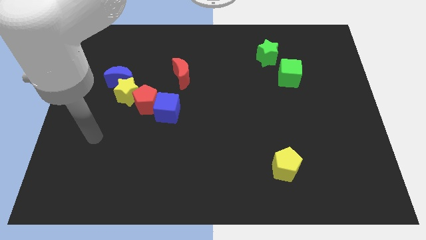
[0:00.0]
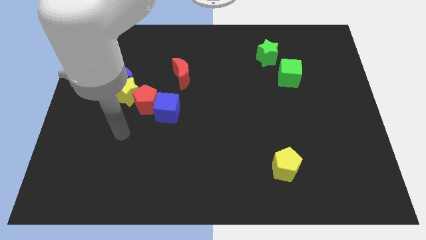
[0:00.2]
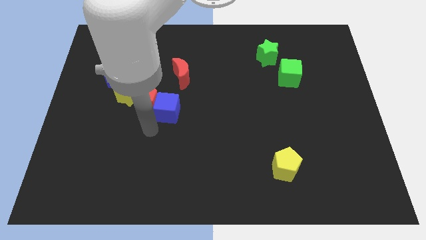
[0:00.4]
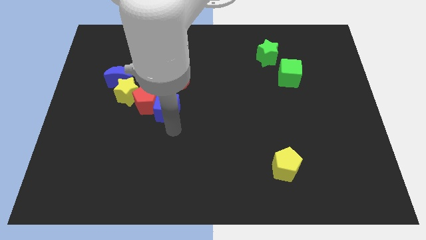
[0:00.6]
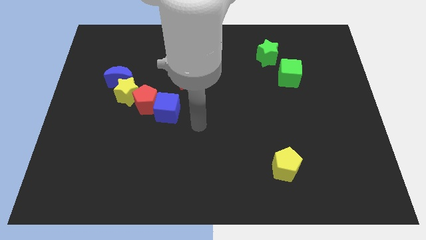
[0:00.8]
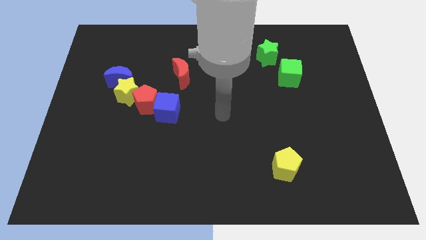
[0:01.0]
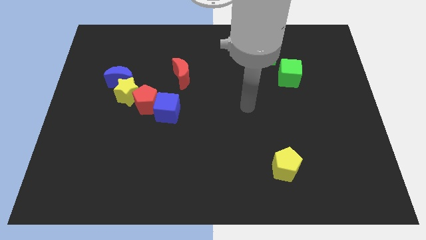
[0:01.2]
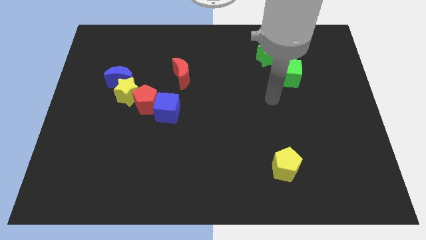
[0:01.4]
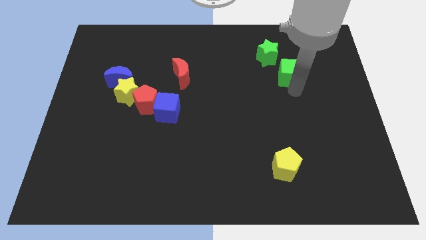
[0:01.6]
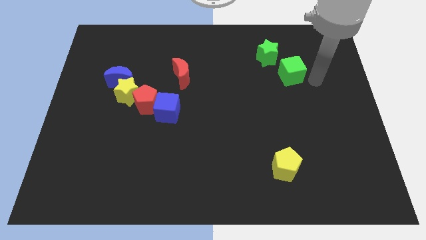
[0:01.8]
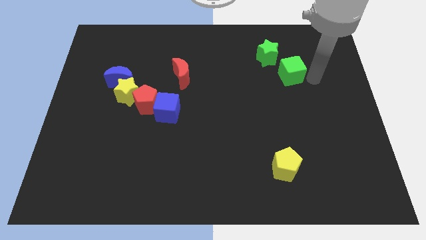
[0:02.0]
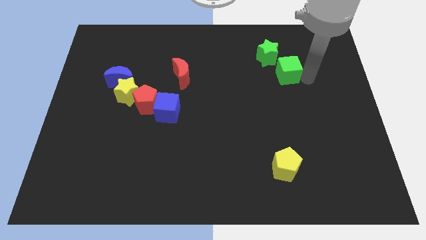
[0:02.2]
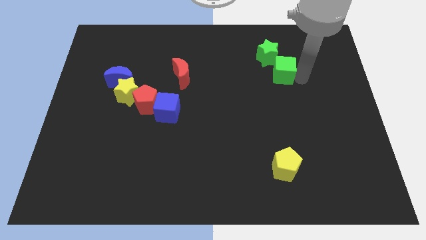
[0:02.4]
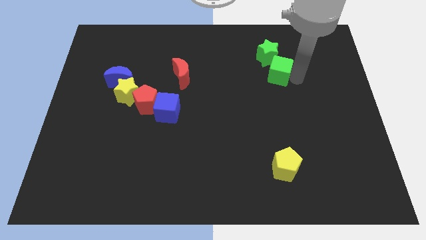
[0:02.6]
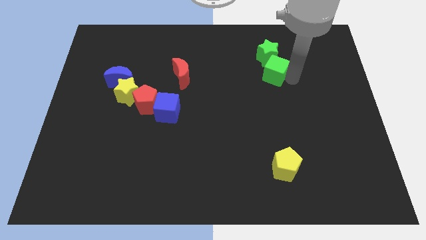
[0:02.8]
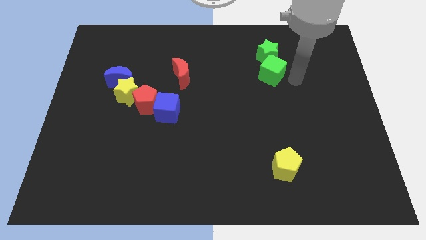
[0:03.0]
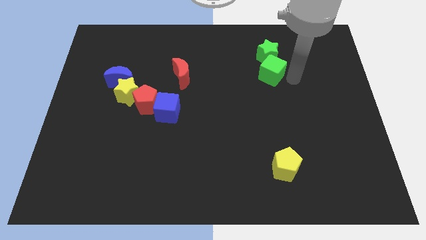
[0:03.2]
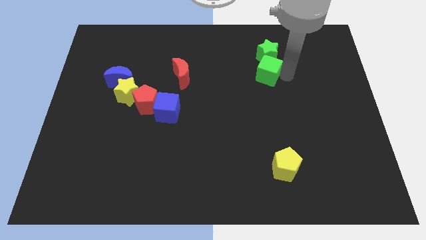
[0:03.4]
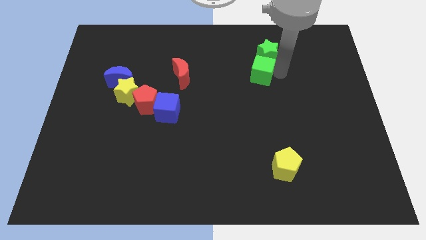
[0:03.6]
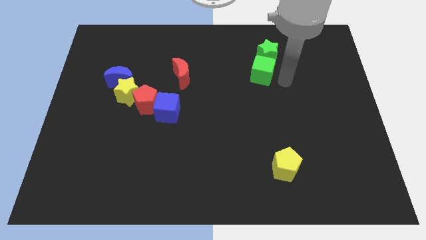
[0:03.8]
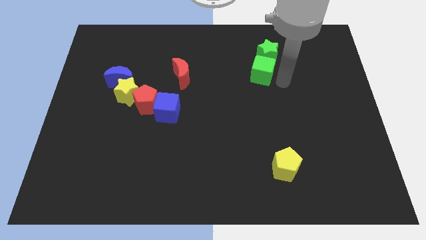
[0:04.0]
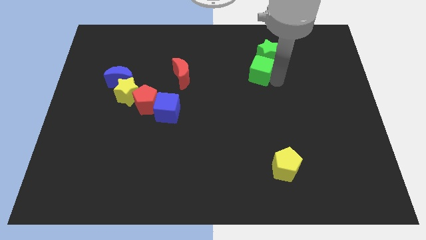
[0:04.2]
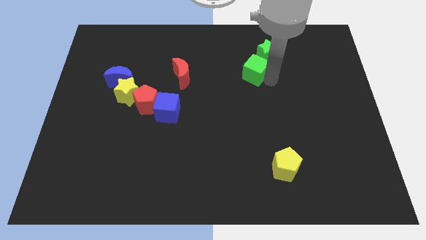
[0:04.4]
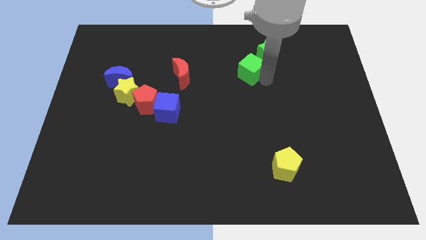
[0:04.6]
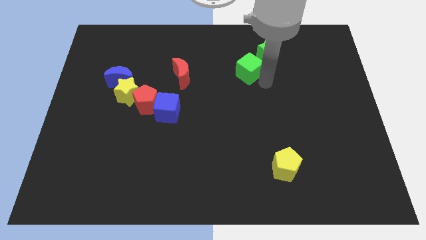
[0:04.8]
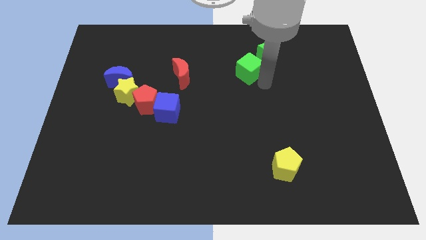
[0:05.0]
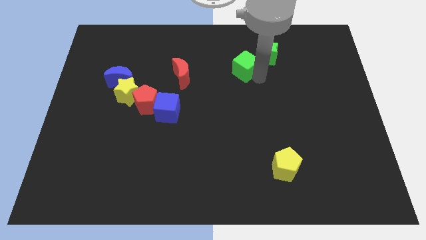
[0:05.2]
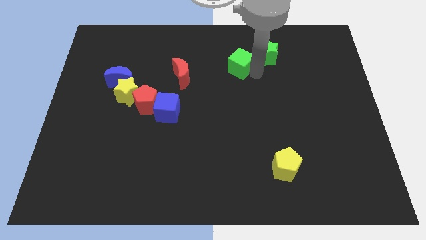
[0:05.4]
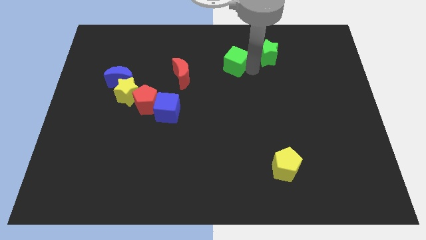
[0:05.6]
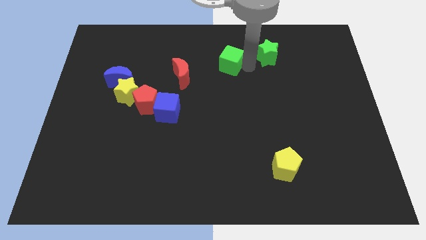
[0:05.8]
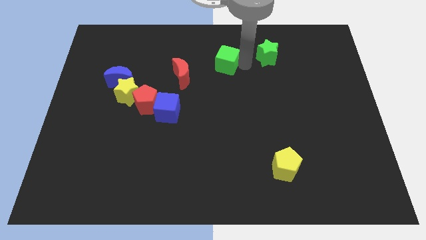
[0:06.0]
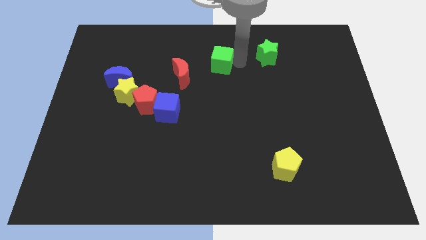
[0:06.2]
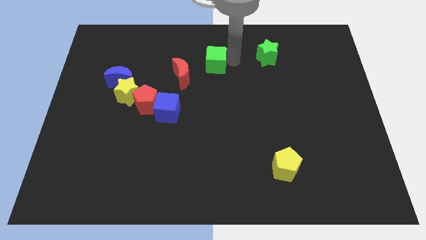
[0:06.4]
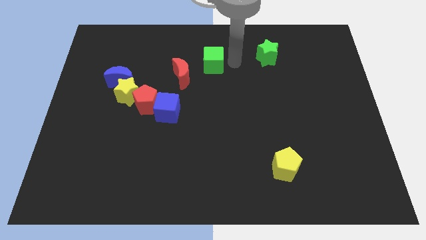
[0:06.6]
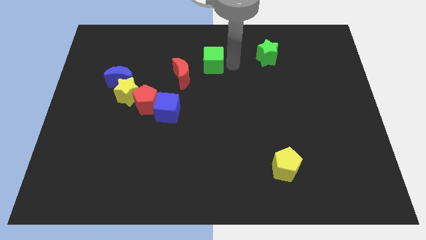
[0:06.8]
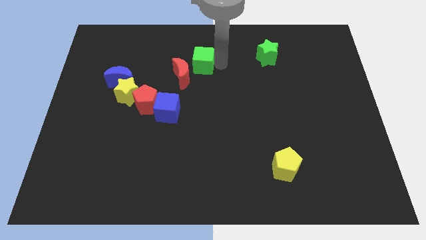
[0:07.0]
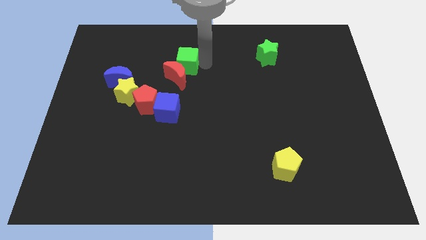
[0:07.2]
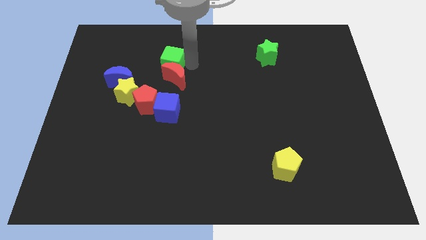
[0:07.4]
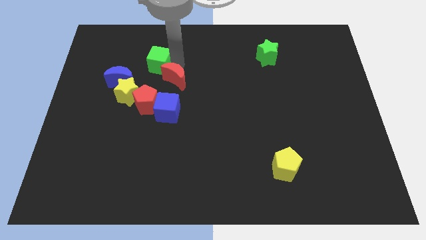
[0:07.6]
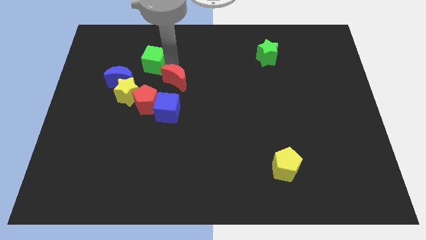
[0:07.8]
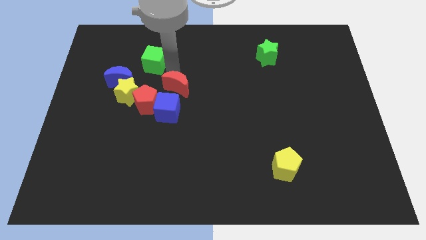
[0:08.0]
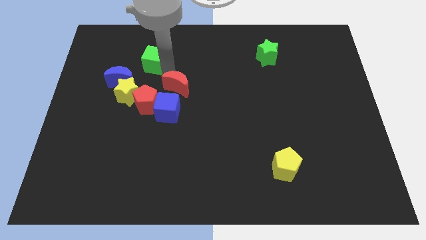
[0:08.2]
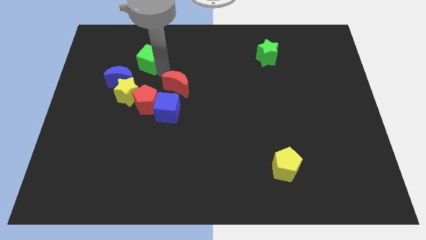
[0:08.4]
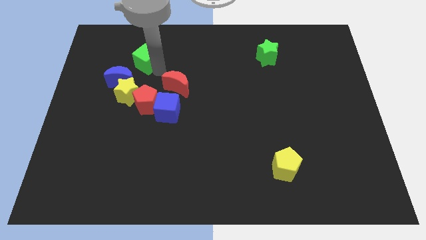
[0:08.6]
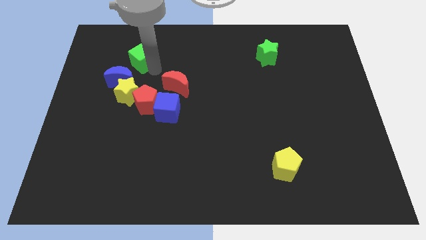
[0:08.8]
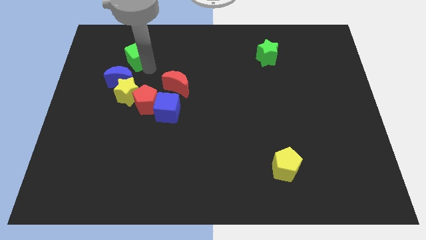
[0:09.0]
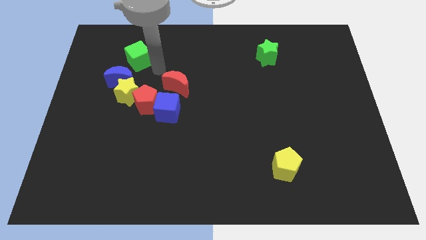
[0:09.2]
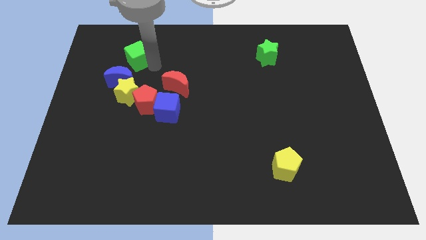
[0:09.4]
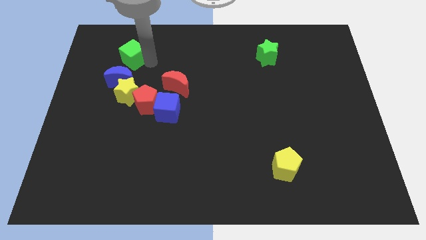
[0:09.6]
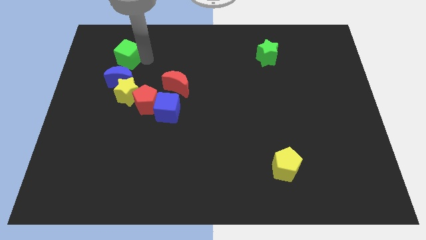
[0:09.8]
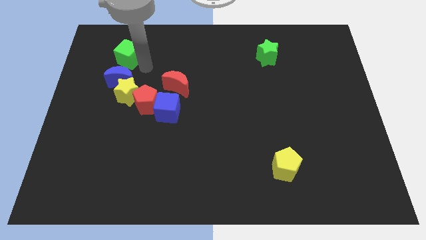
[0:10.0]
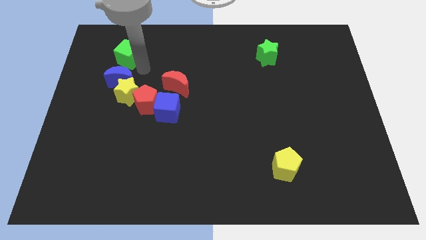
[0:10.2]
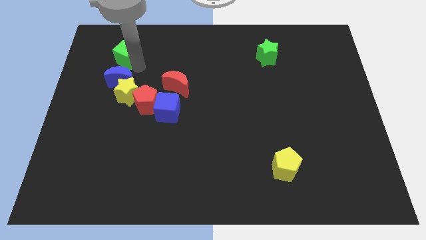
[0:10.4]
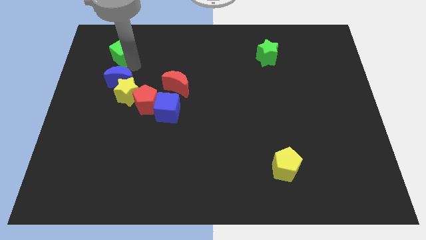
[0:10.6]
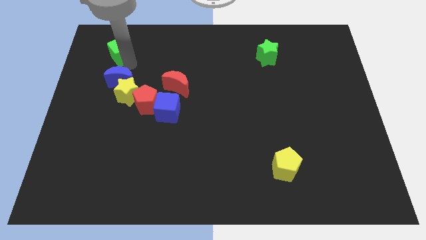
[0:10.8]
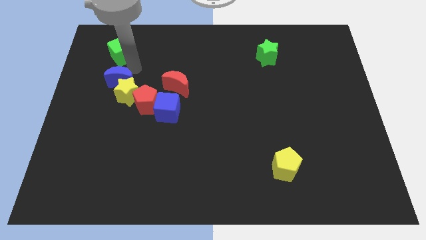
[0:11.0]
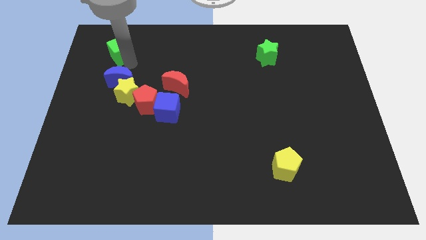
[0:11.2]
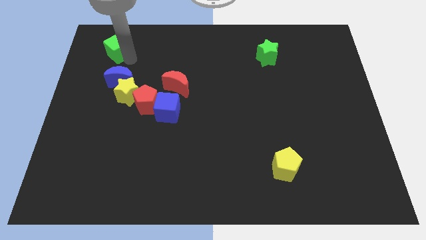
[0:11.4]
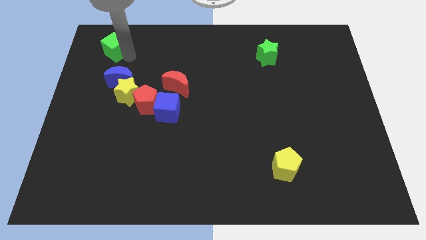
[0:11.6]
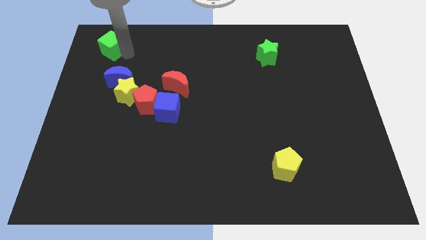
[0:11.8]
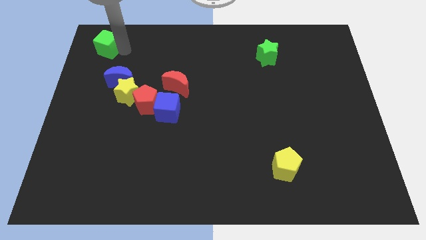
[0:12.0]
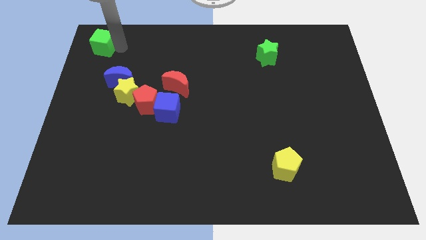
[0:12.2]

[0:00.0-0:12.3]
move the green cube to the upper left corner

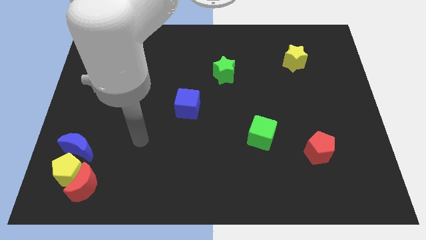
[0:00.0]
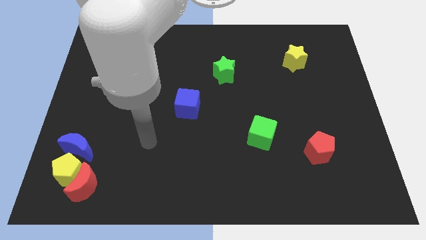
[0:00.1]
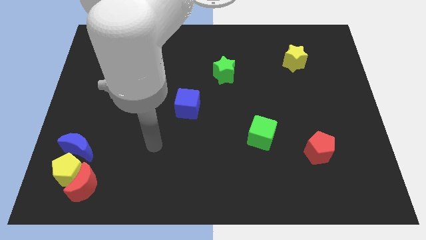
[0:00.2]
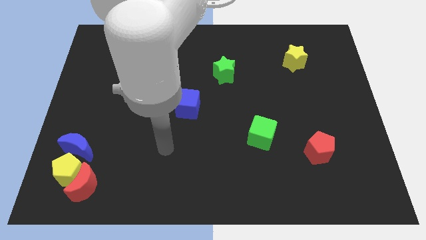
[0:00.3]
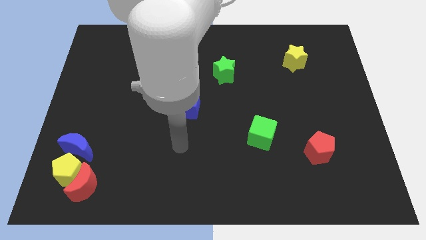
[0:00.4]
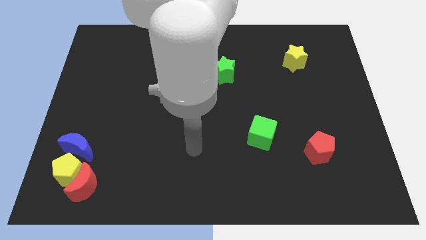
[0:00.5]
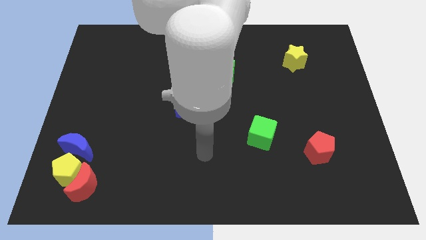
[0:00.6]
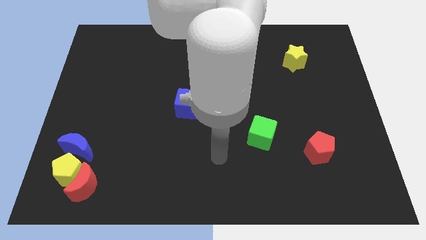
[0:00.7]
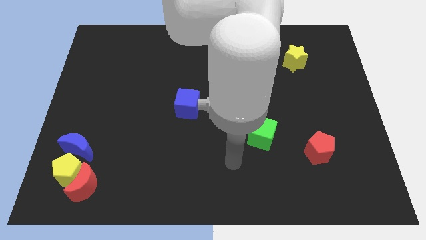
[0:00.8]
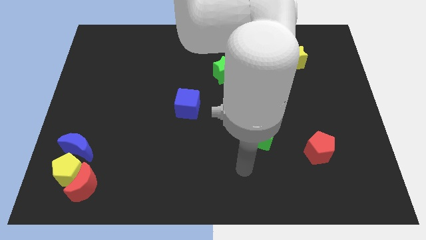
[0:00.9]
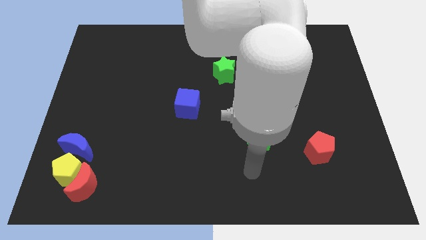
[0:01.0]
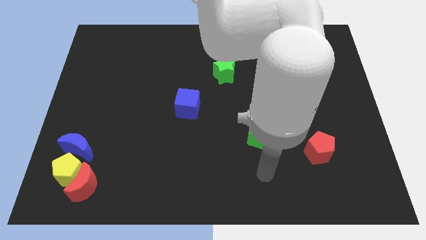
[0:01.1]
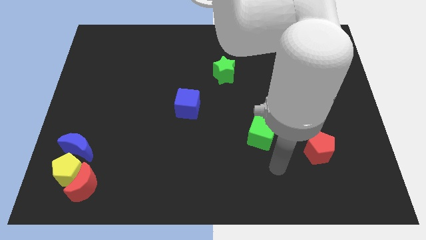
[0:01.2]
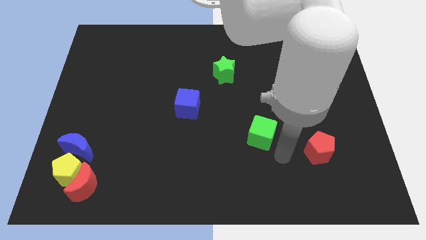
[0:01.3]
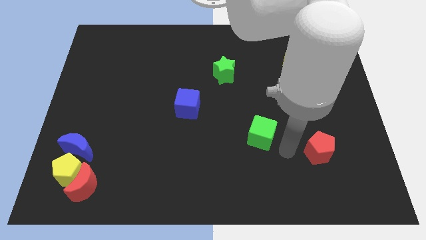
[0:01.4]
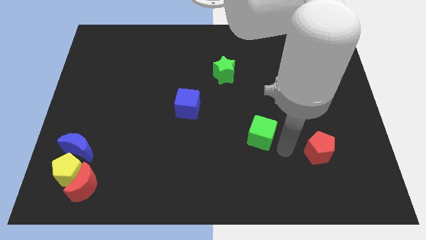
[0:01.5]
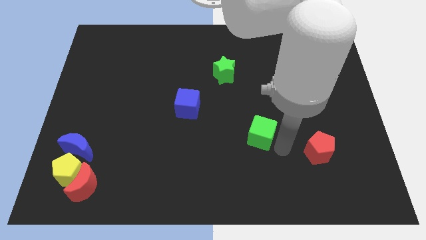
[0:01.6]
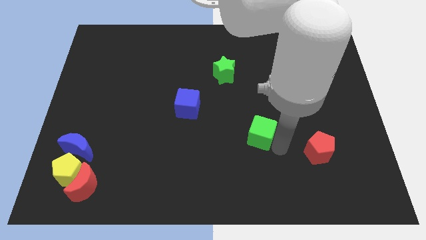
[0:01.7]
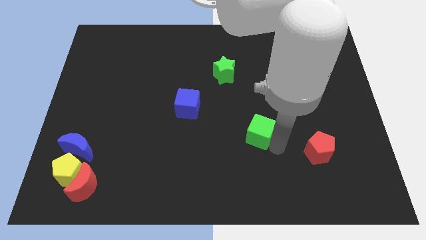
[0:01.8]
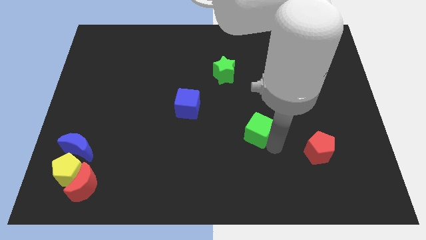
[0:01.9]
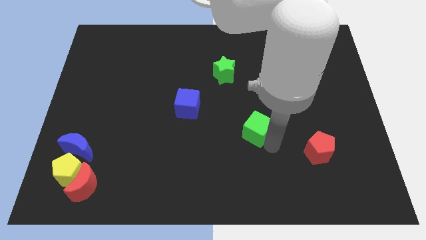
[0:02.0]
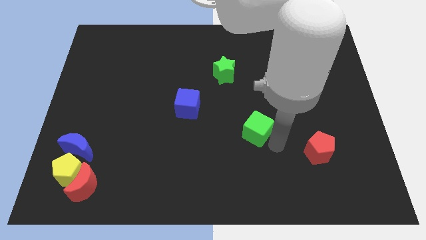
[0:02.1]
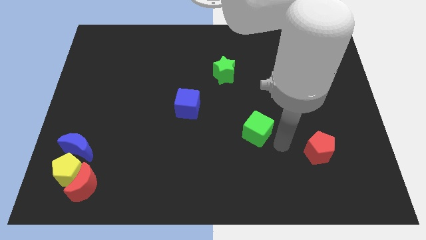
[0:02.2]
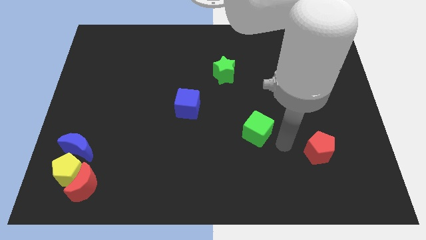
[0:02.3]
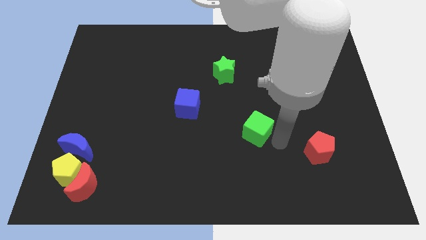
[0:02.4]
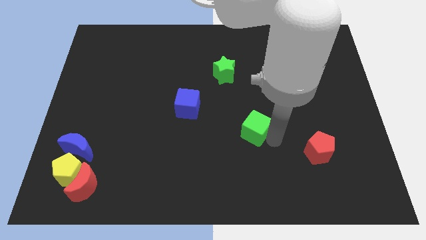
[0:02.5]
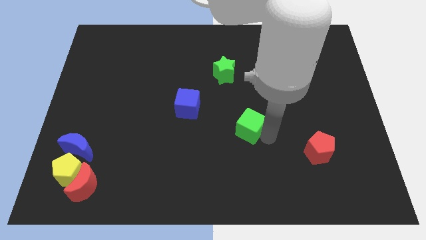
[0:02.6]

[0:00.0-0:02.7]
push the green cube to the center
